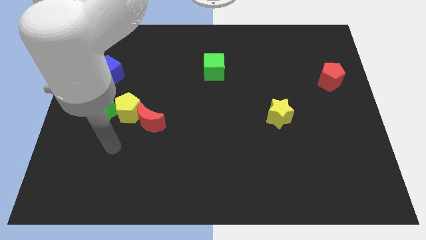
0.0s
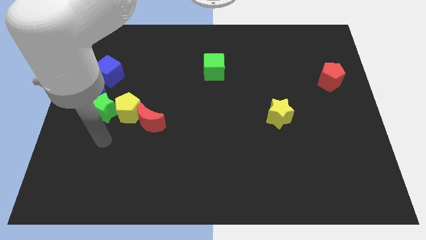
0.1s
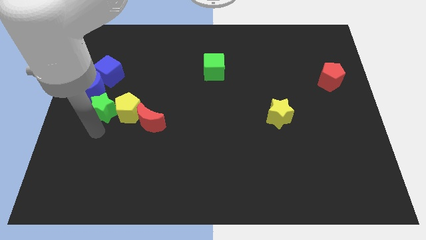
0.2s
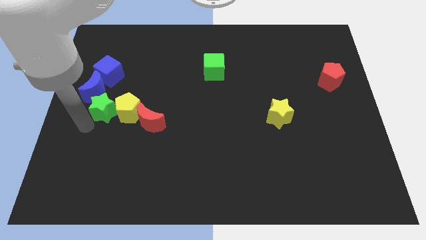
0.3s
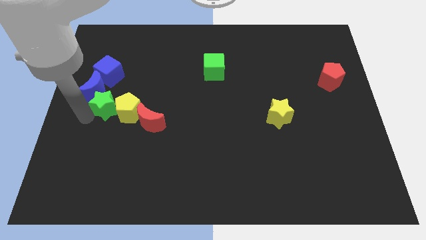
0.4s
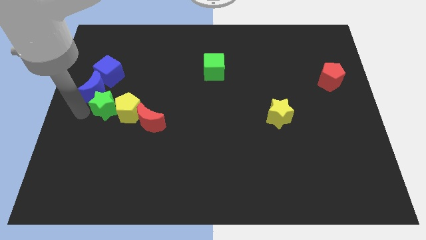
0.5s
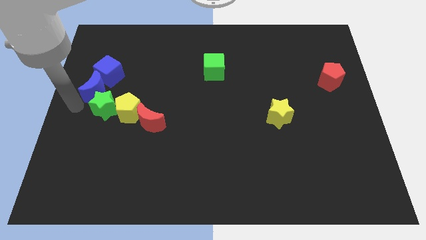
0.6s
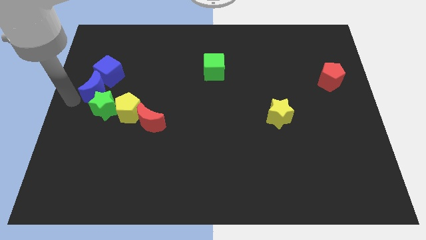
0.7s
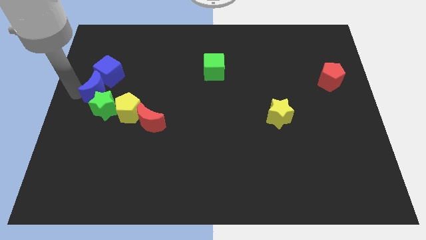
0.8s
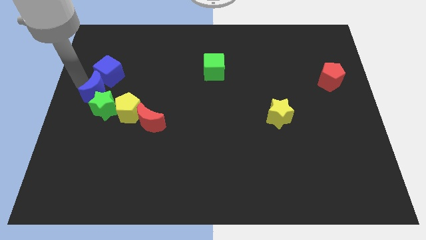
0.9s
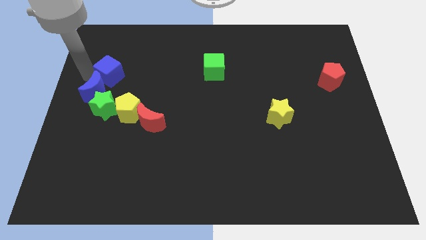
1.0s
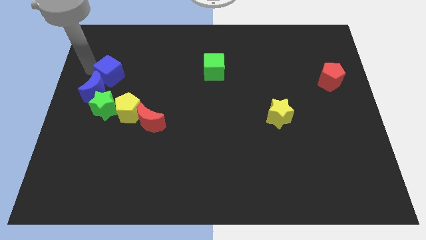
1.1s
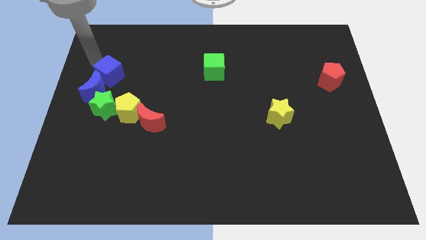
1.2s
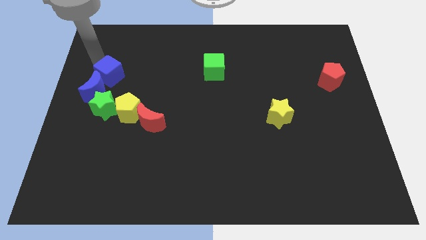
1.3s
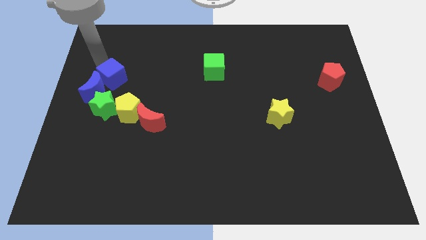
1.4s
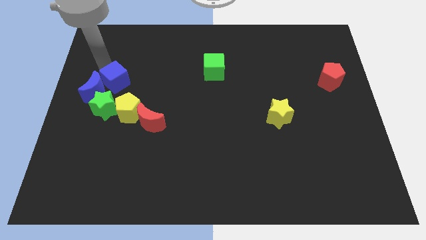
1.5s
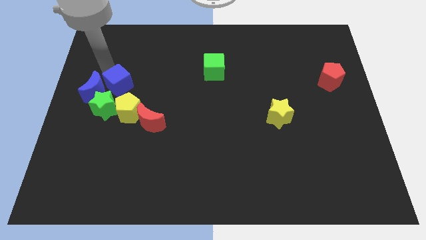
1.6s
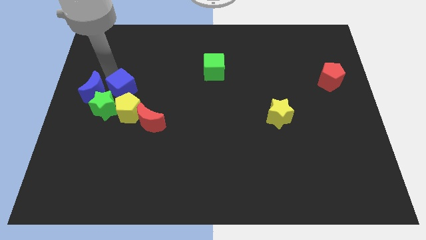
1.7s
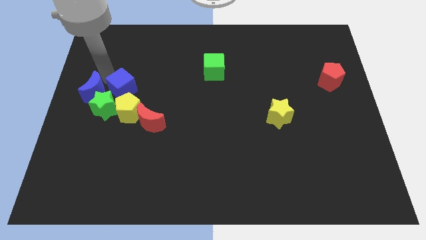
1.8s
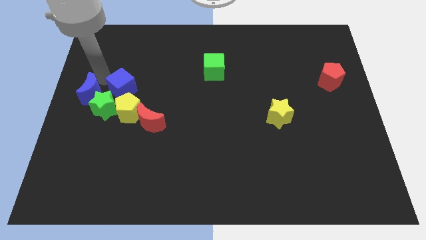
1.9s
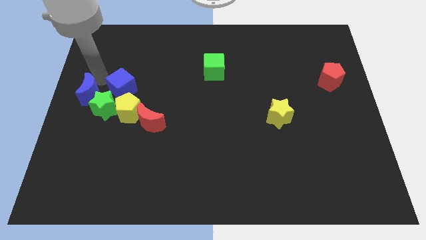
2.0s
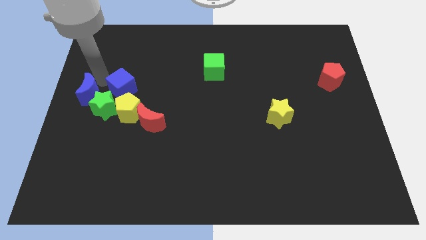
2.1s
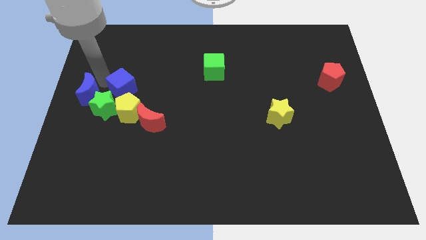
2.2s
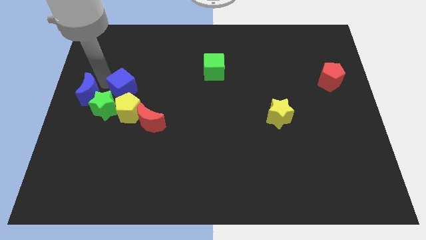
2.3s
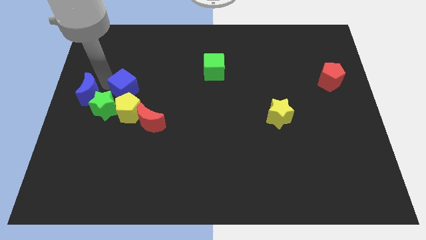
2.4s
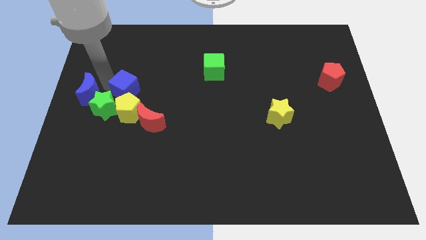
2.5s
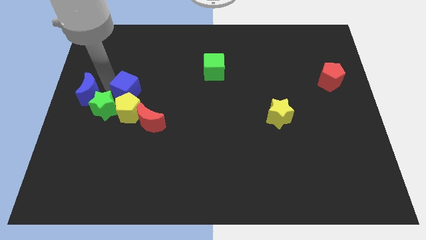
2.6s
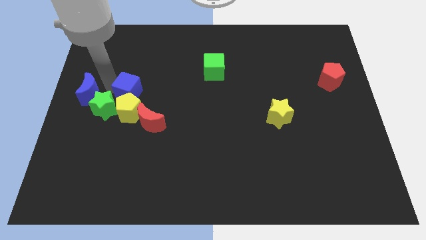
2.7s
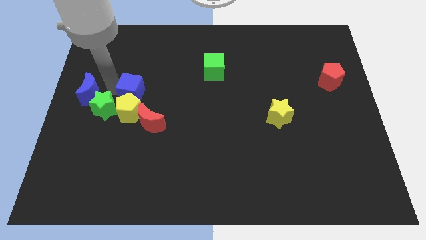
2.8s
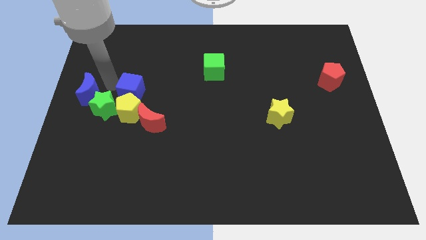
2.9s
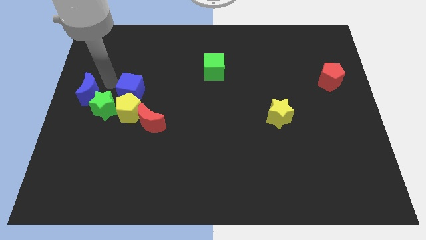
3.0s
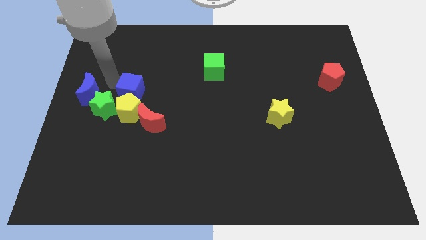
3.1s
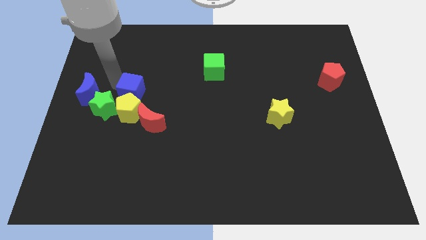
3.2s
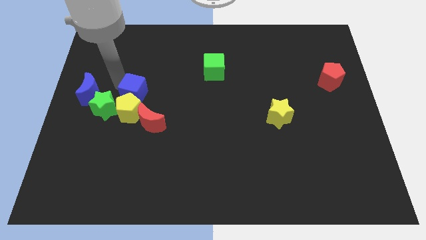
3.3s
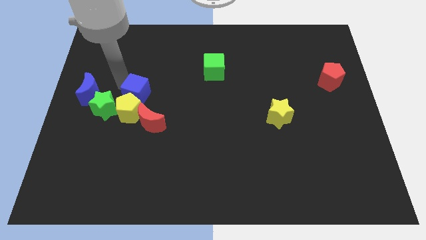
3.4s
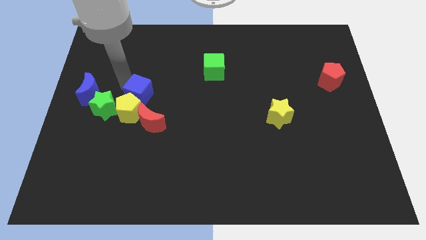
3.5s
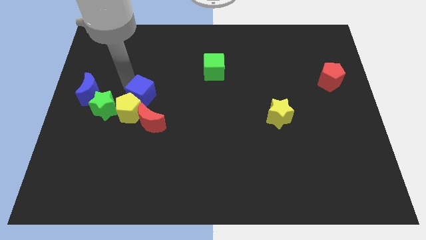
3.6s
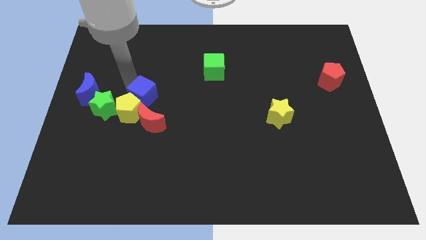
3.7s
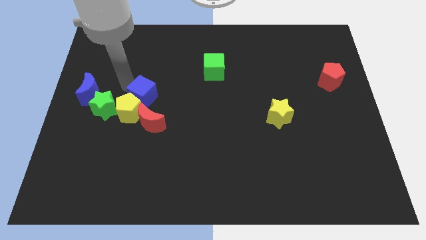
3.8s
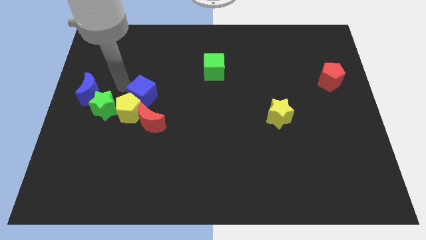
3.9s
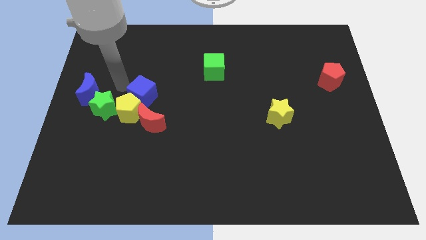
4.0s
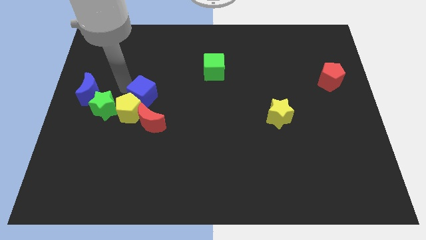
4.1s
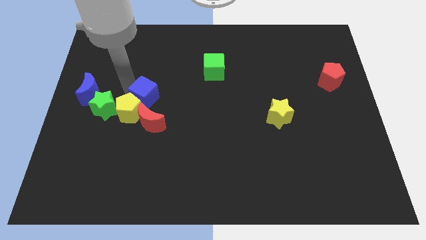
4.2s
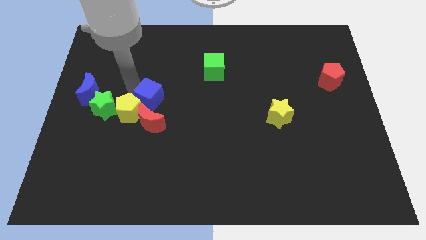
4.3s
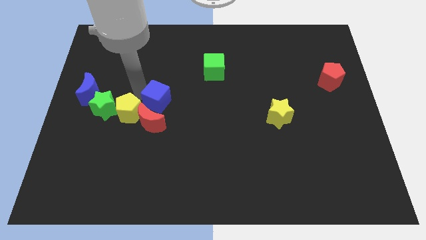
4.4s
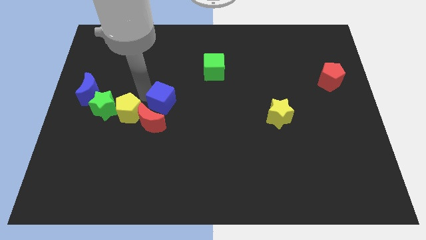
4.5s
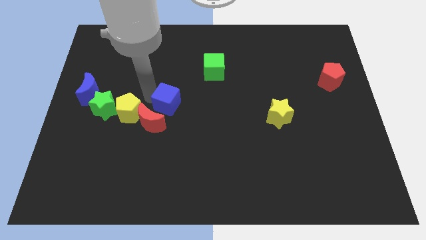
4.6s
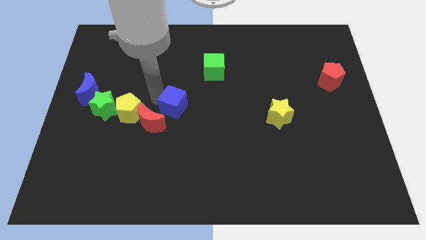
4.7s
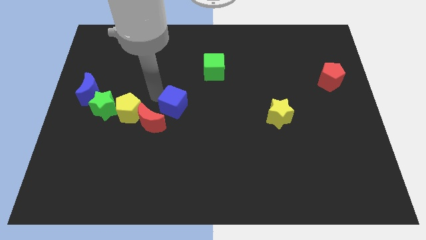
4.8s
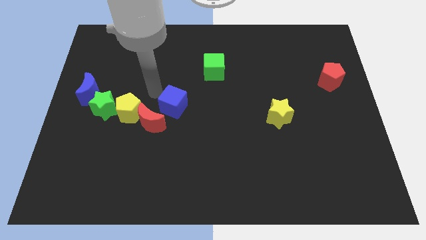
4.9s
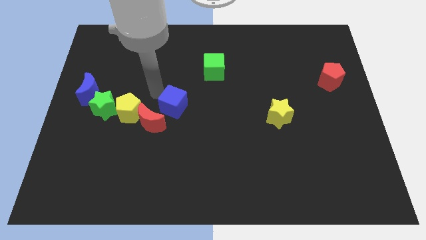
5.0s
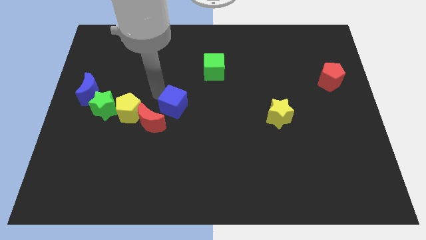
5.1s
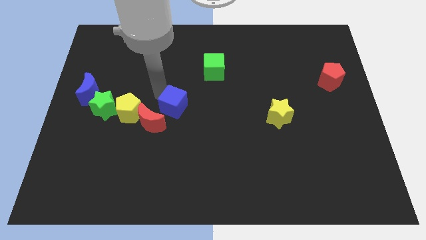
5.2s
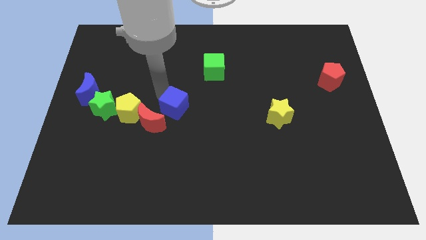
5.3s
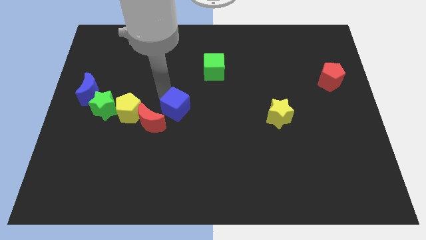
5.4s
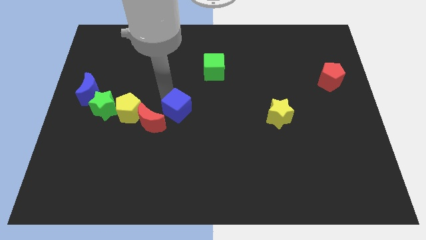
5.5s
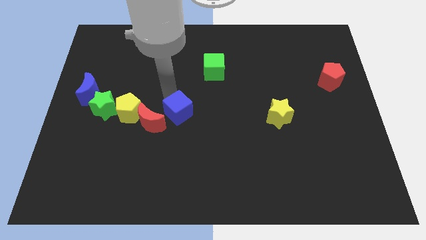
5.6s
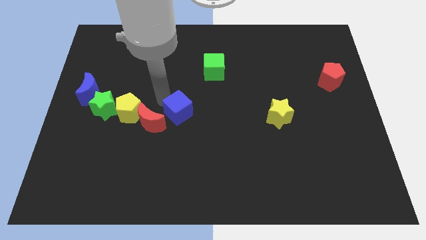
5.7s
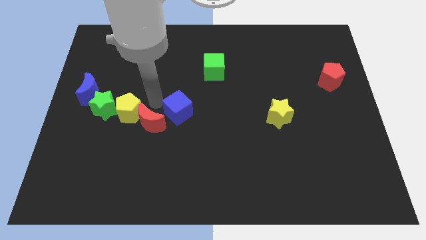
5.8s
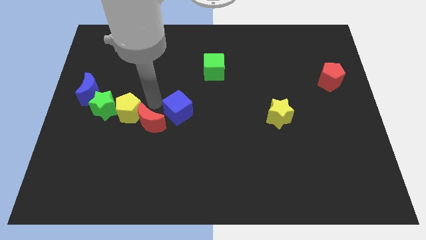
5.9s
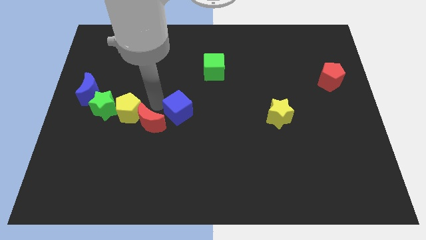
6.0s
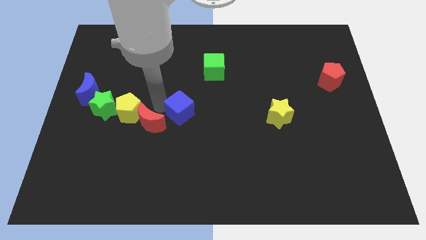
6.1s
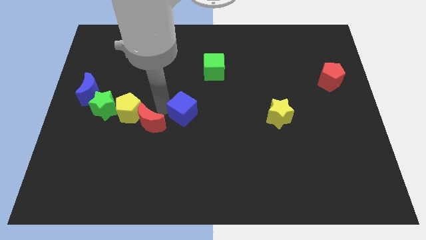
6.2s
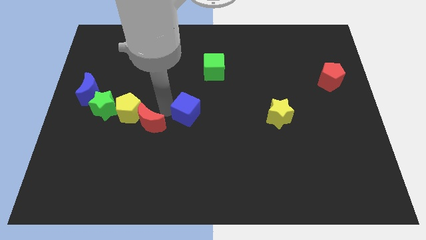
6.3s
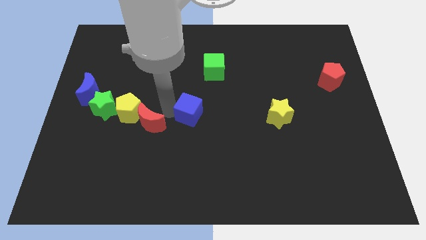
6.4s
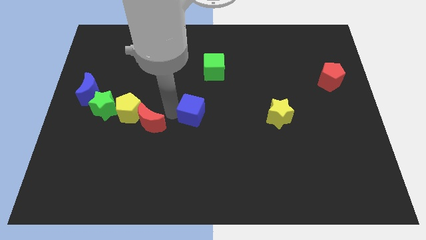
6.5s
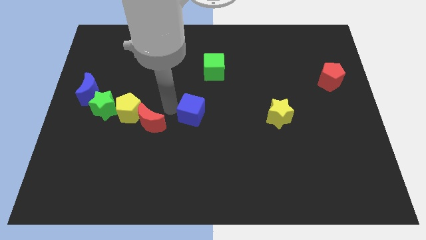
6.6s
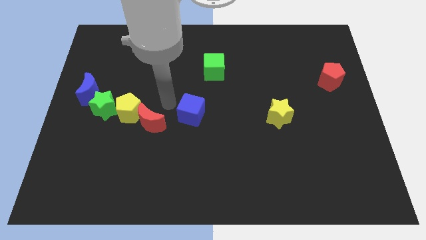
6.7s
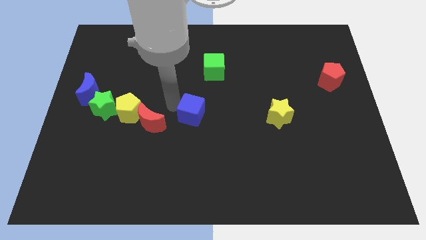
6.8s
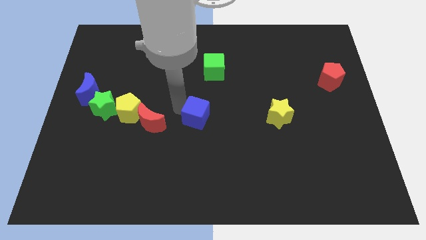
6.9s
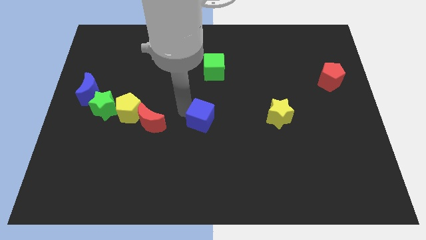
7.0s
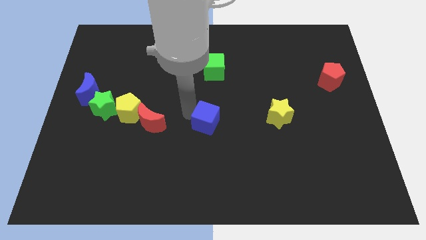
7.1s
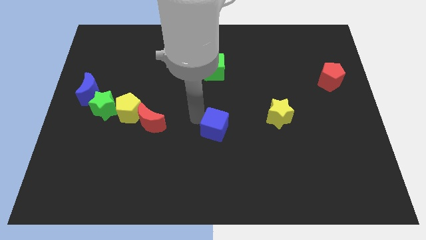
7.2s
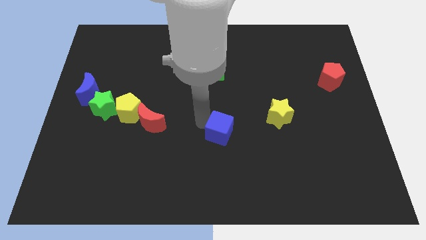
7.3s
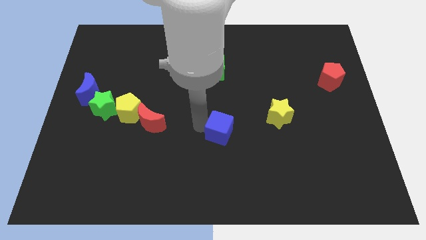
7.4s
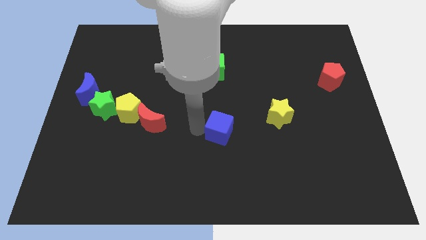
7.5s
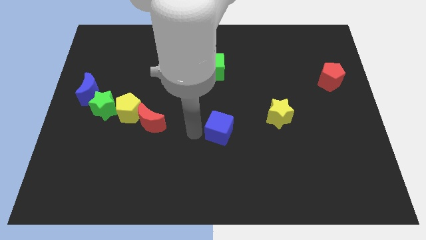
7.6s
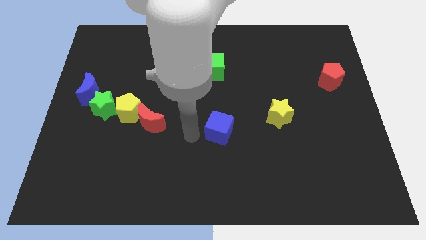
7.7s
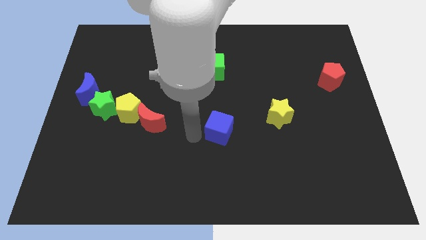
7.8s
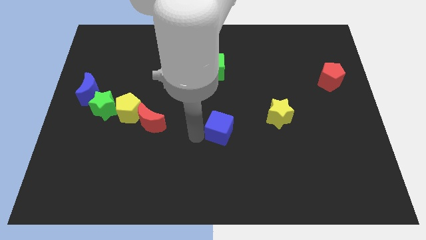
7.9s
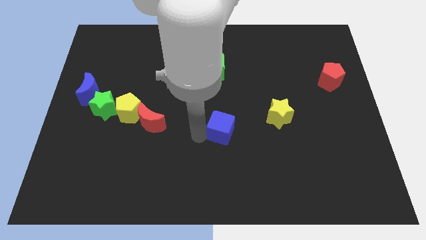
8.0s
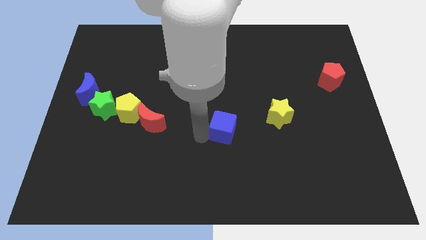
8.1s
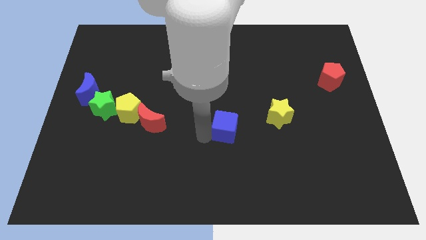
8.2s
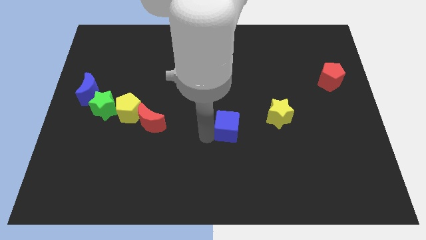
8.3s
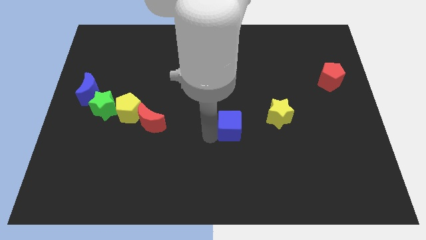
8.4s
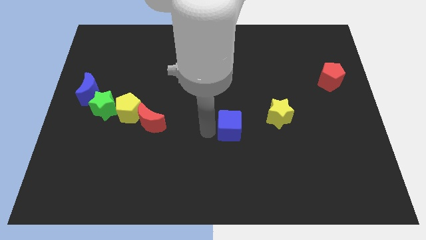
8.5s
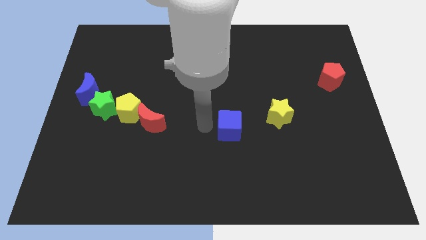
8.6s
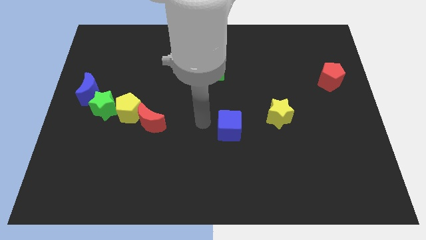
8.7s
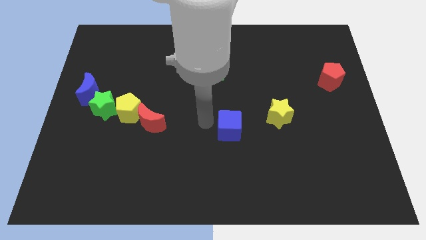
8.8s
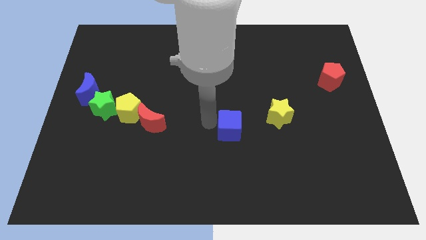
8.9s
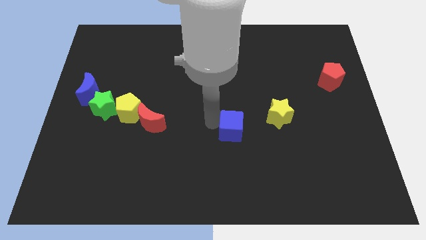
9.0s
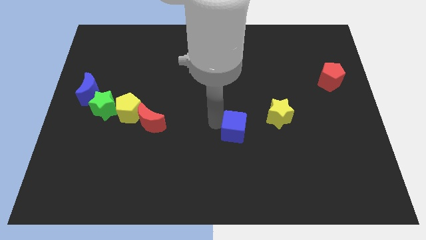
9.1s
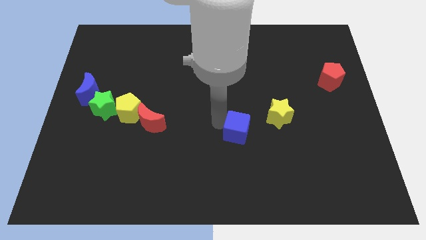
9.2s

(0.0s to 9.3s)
slide the blue cube diagonally down and to the left of the yellow star
